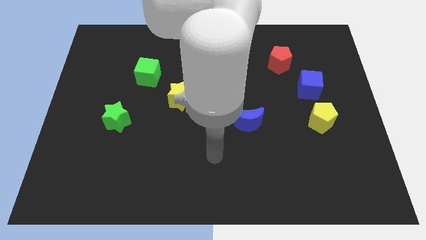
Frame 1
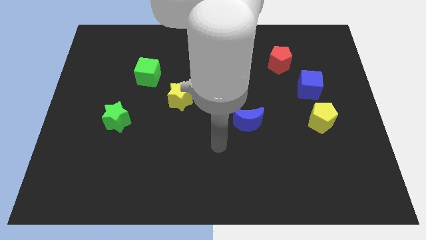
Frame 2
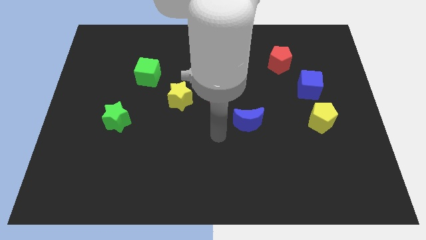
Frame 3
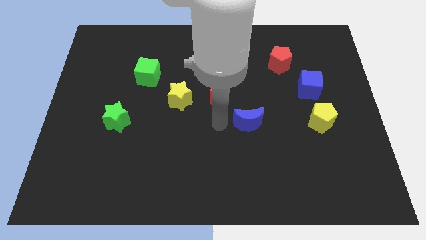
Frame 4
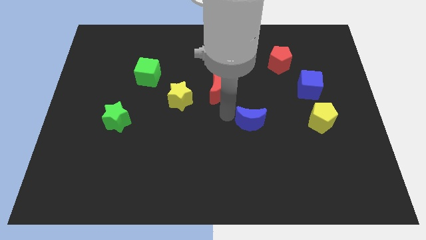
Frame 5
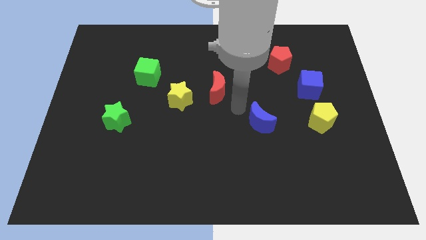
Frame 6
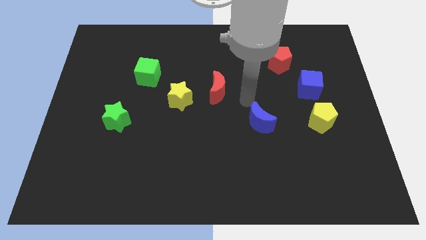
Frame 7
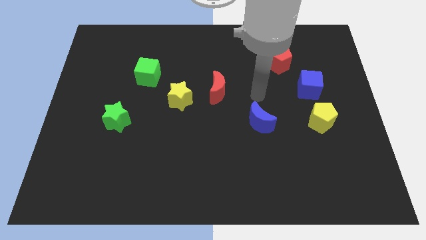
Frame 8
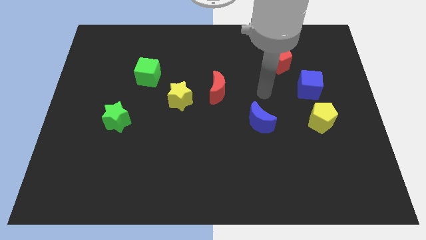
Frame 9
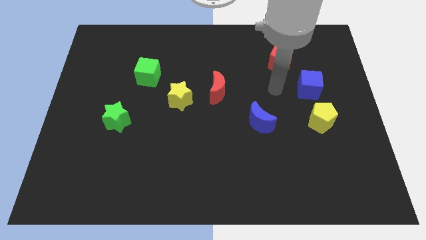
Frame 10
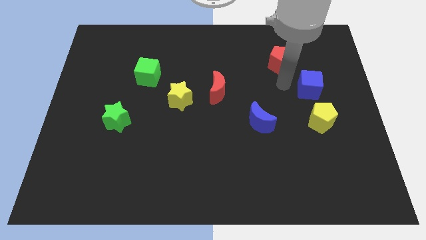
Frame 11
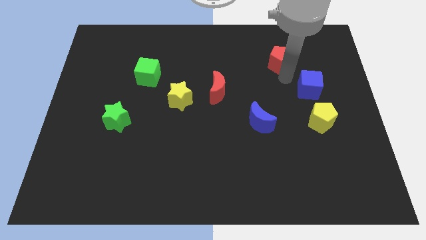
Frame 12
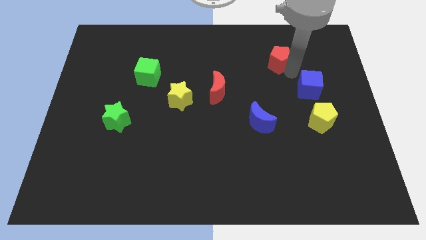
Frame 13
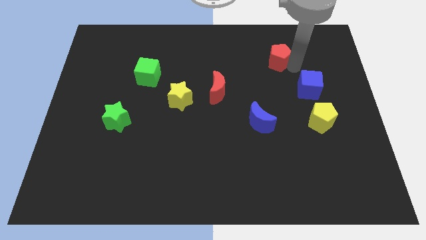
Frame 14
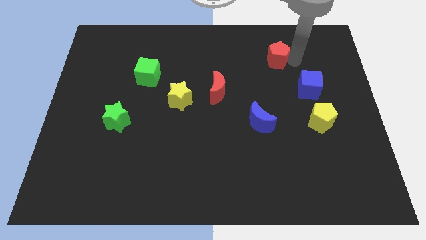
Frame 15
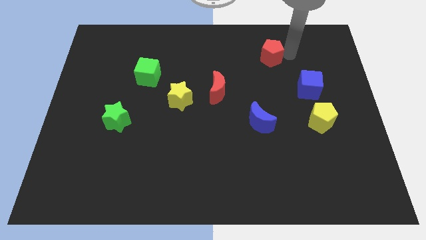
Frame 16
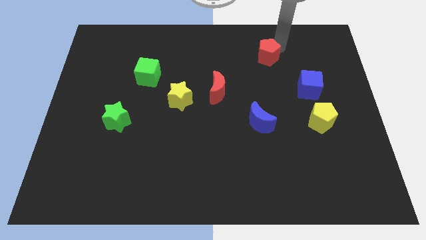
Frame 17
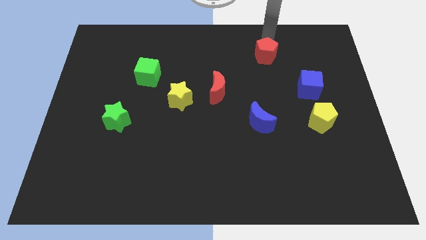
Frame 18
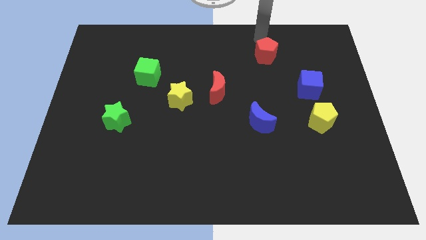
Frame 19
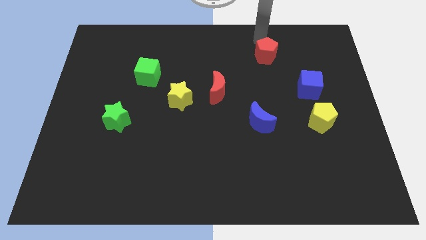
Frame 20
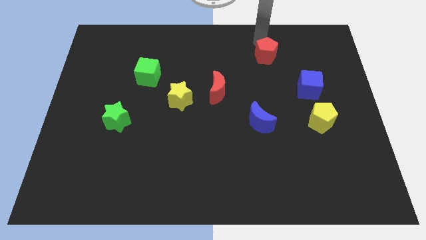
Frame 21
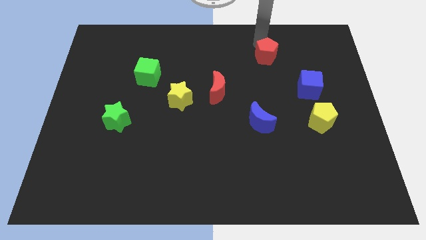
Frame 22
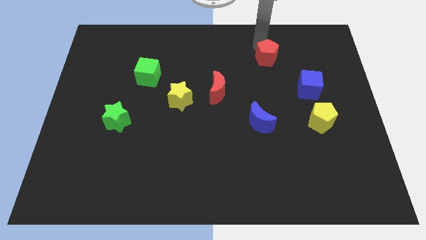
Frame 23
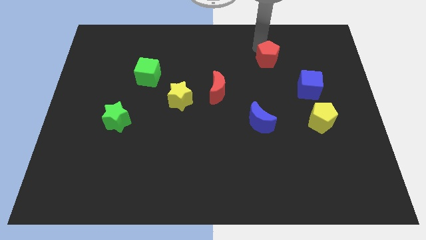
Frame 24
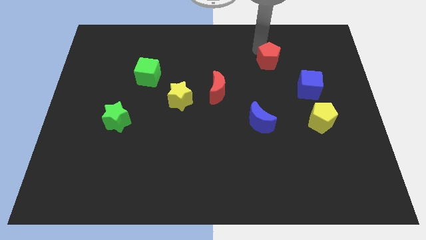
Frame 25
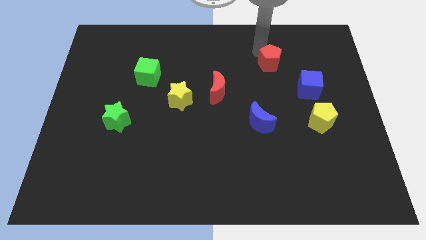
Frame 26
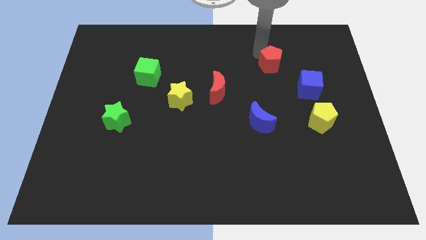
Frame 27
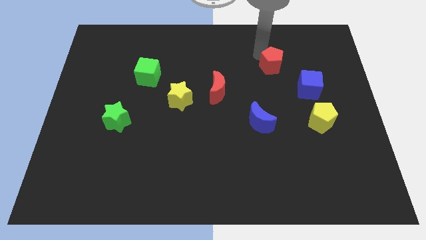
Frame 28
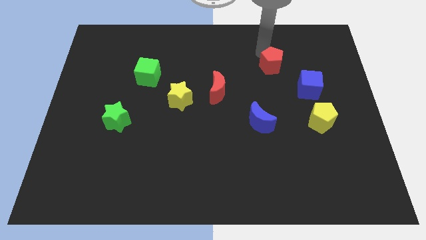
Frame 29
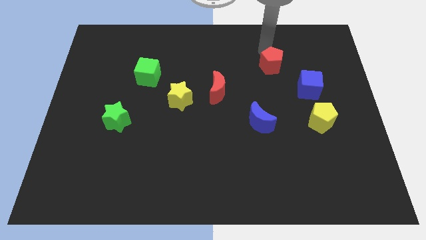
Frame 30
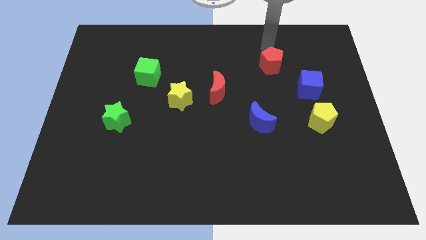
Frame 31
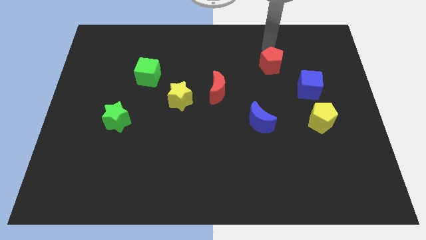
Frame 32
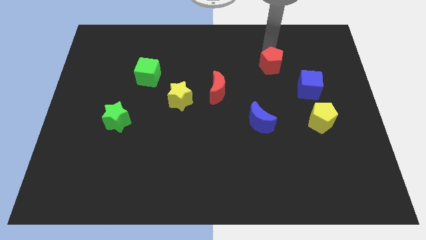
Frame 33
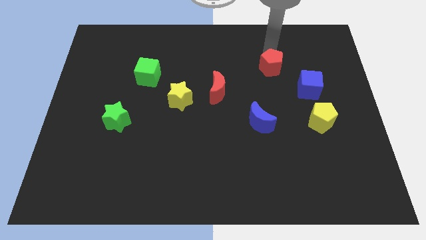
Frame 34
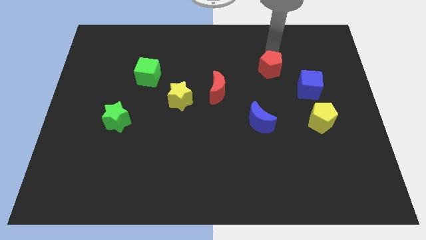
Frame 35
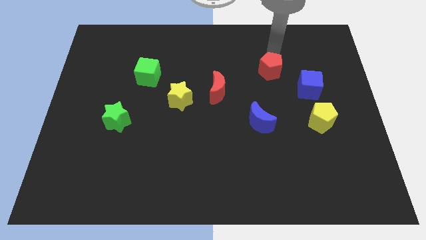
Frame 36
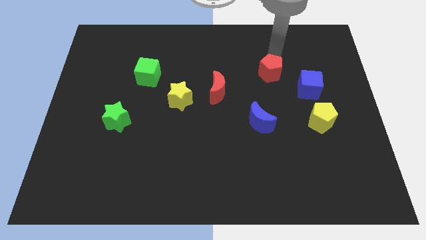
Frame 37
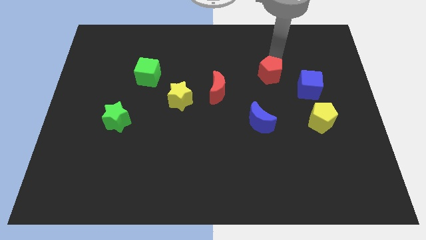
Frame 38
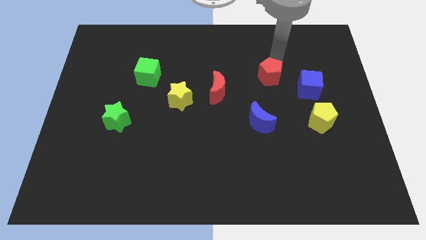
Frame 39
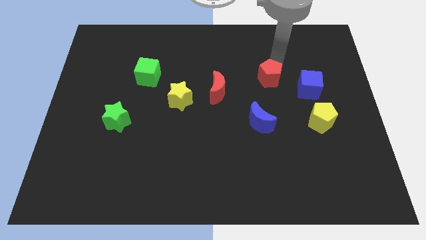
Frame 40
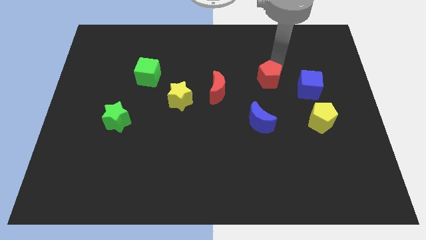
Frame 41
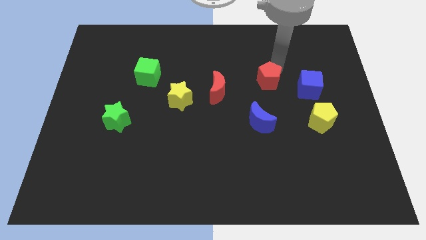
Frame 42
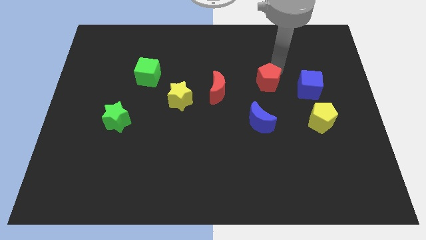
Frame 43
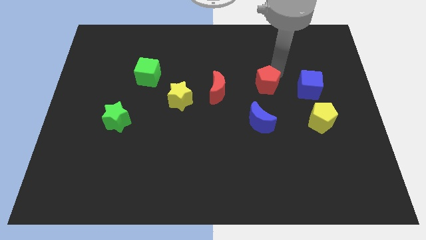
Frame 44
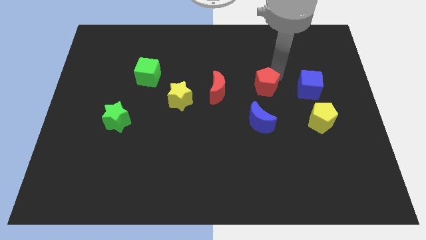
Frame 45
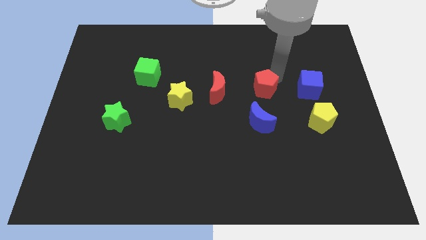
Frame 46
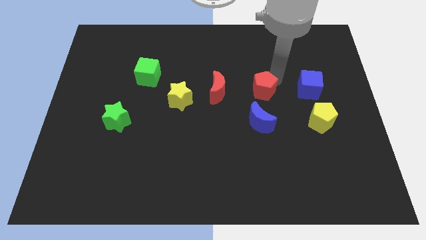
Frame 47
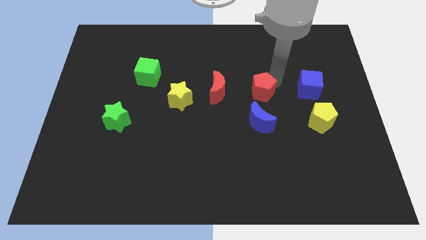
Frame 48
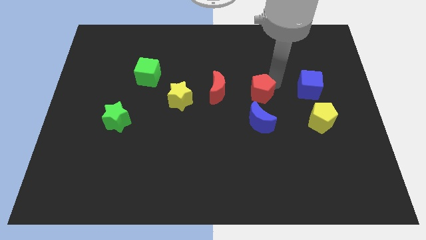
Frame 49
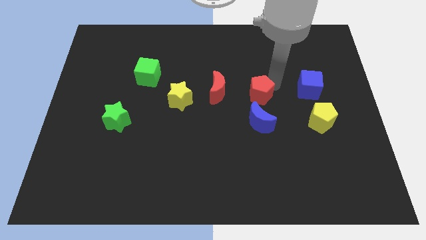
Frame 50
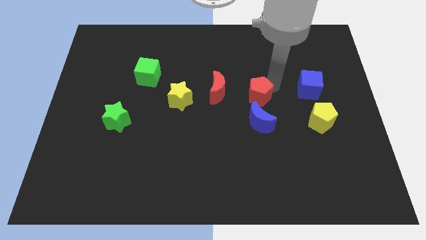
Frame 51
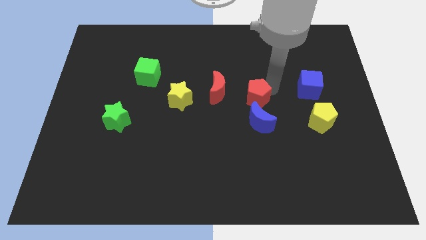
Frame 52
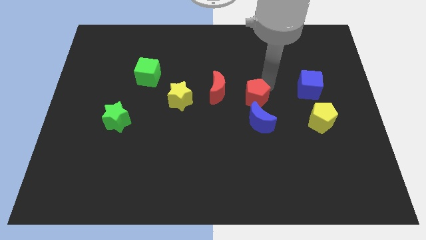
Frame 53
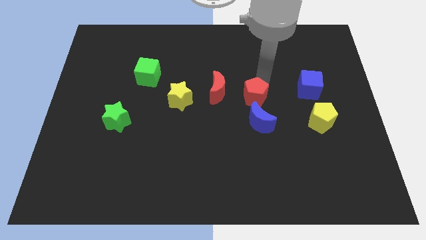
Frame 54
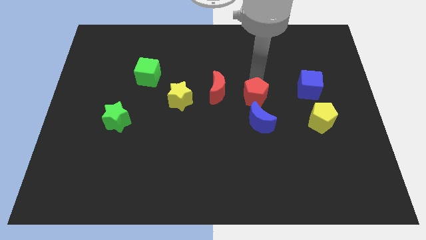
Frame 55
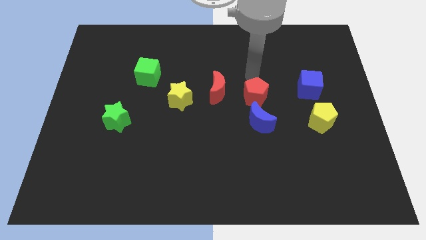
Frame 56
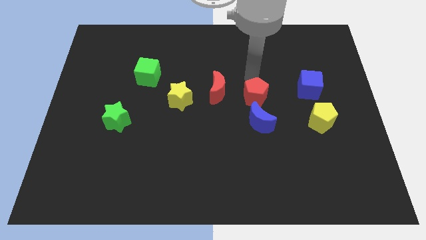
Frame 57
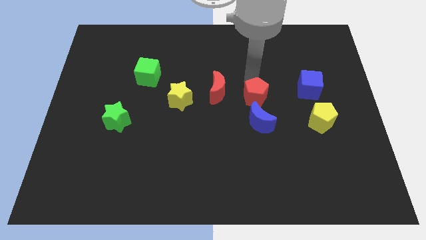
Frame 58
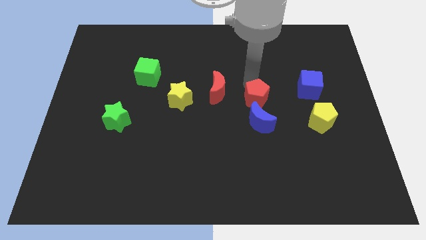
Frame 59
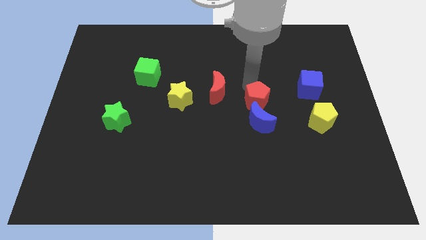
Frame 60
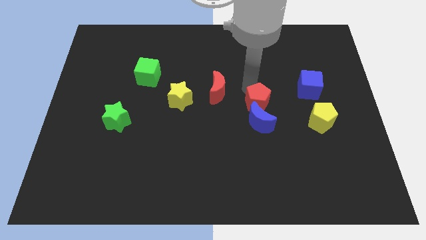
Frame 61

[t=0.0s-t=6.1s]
move the red pentagon towards the blue moon

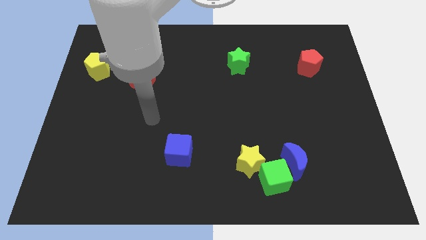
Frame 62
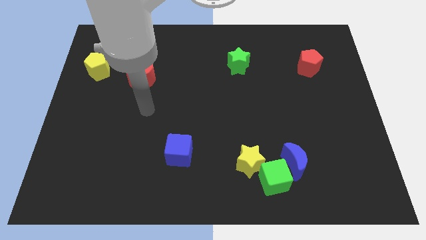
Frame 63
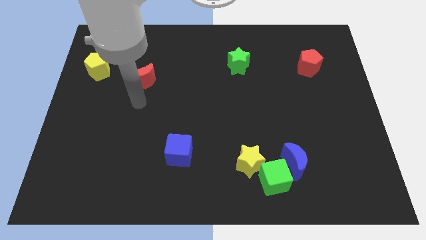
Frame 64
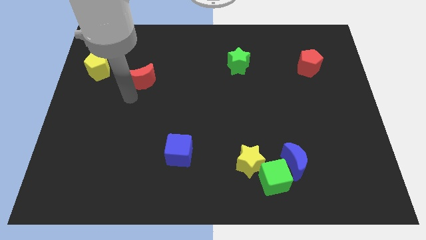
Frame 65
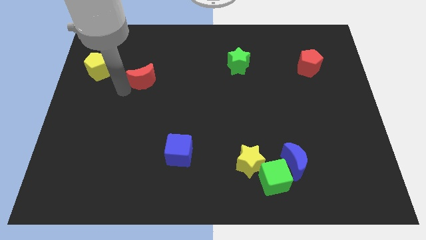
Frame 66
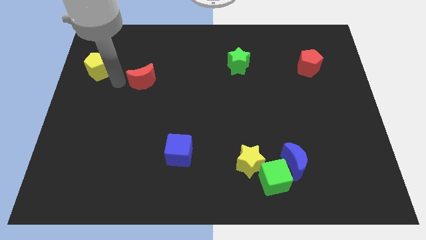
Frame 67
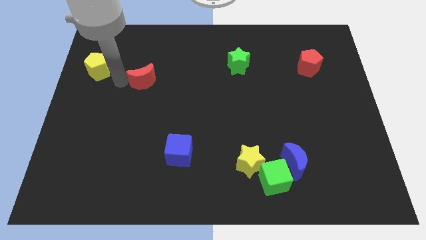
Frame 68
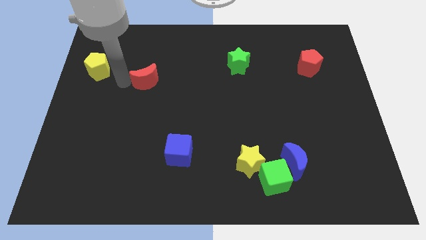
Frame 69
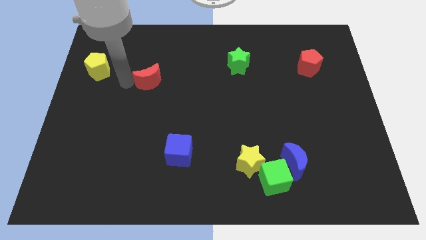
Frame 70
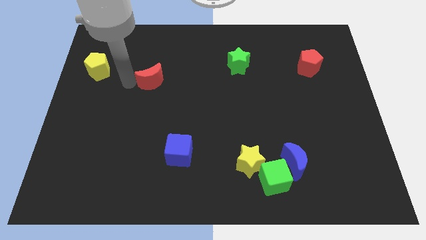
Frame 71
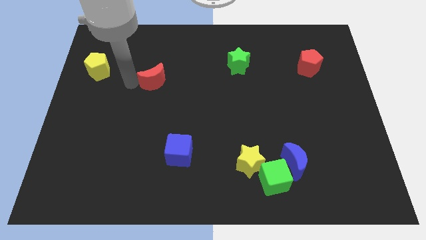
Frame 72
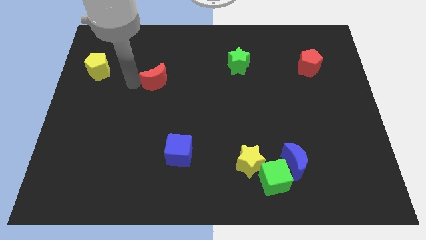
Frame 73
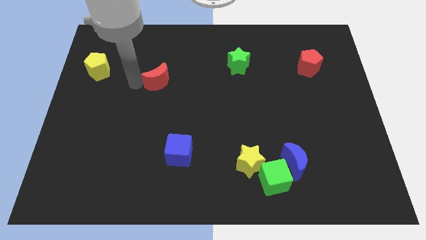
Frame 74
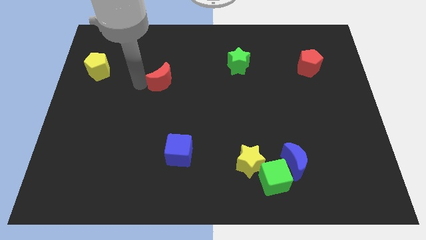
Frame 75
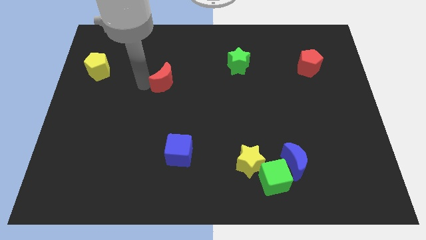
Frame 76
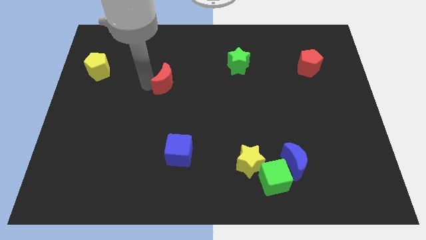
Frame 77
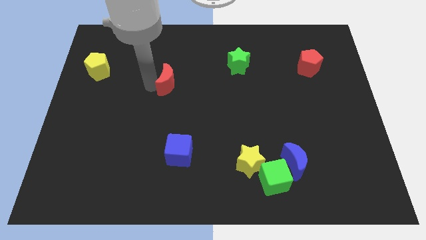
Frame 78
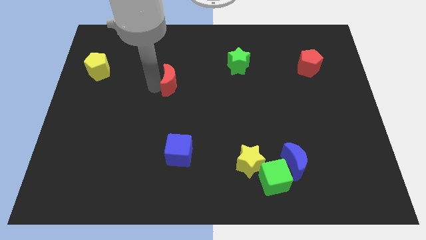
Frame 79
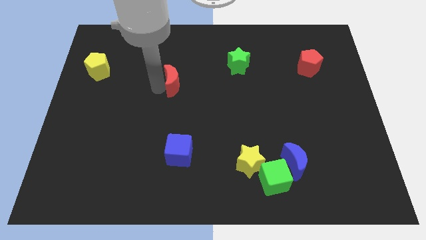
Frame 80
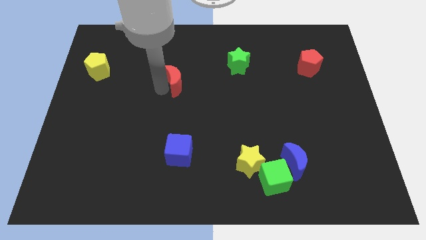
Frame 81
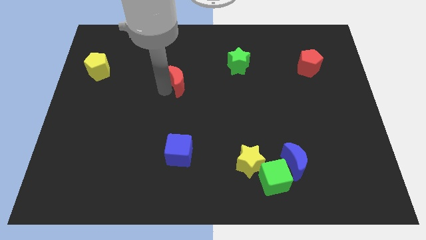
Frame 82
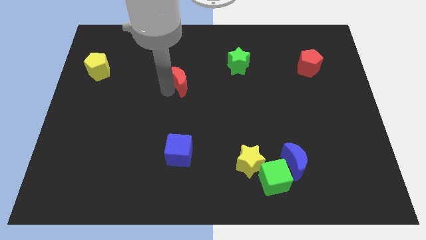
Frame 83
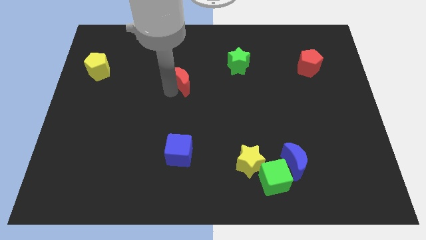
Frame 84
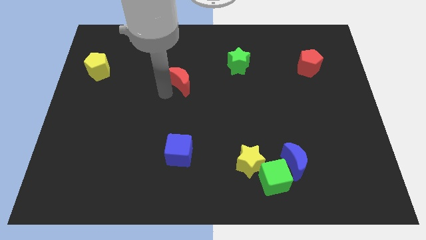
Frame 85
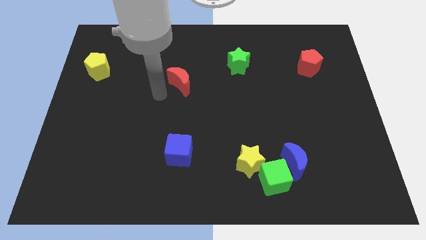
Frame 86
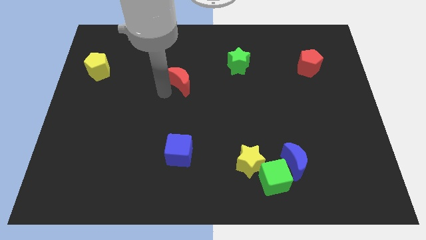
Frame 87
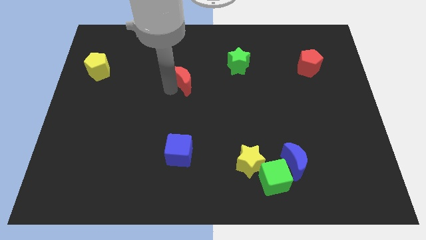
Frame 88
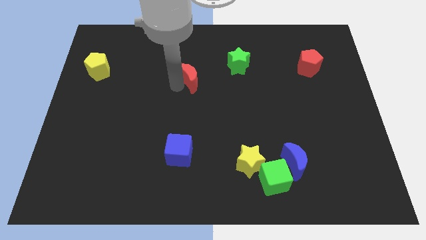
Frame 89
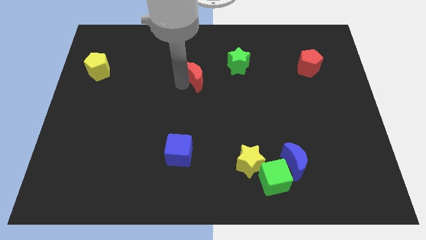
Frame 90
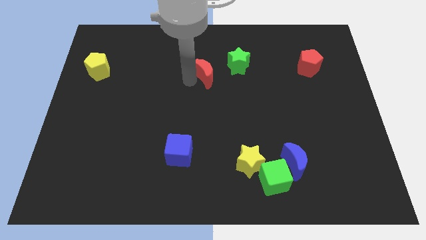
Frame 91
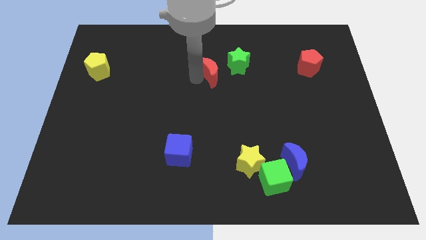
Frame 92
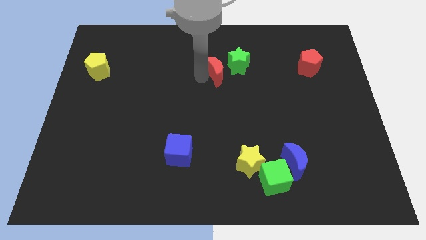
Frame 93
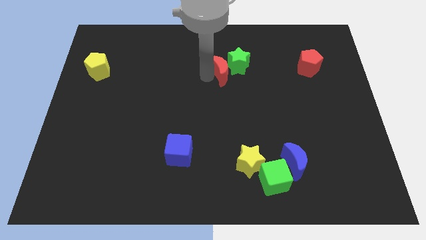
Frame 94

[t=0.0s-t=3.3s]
move the red moon to the green star
